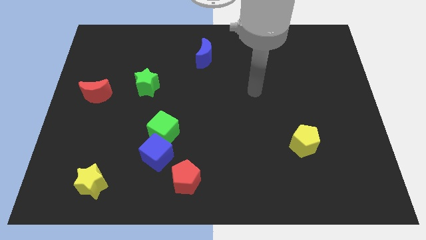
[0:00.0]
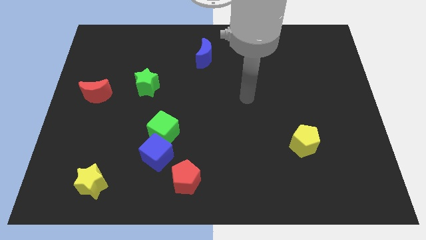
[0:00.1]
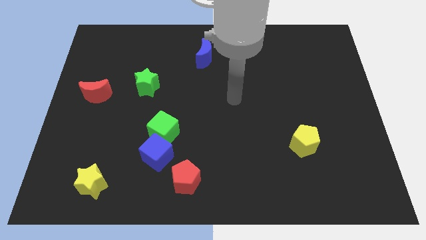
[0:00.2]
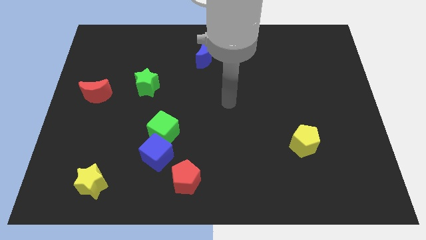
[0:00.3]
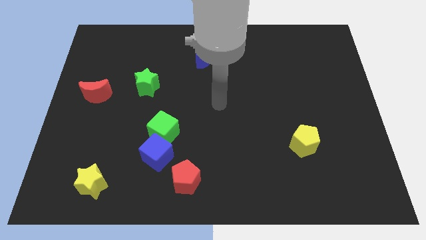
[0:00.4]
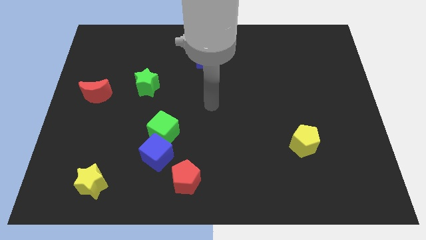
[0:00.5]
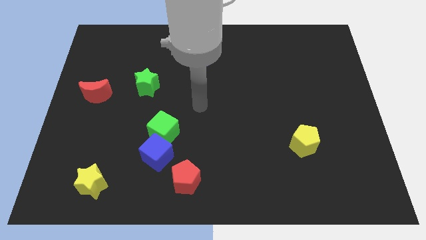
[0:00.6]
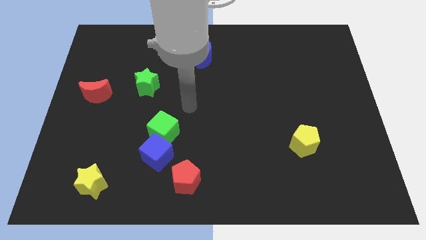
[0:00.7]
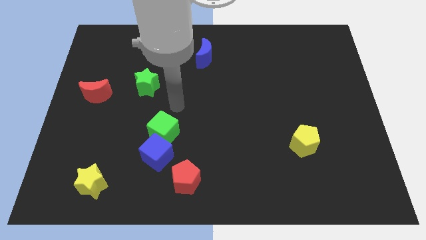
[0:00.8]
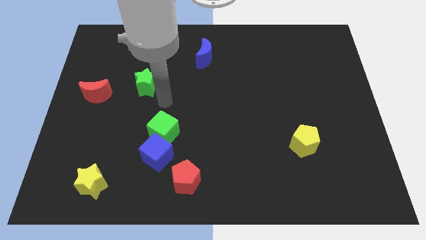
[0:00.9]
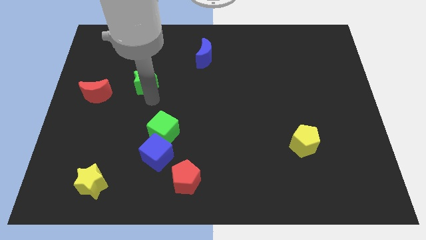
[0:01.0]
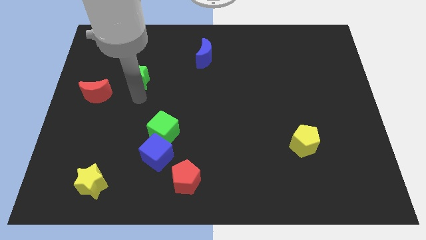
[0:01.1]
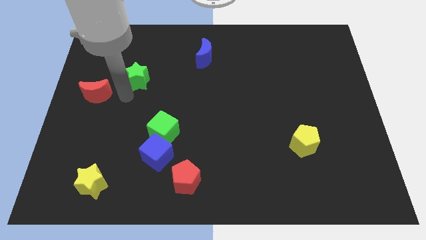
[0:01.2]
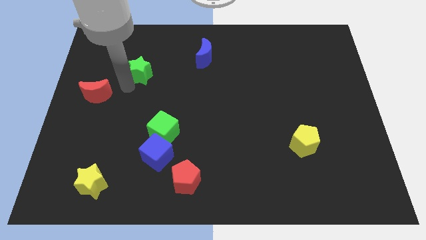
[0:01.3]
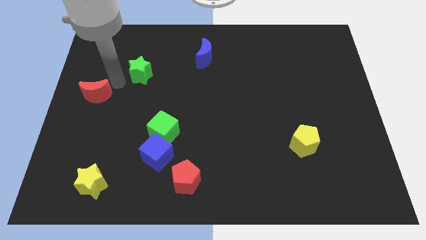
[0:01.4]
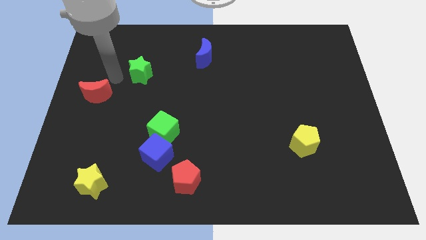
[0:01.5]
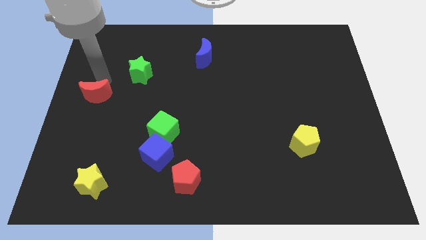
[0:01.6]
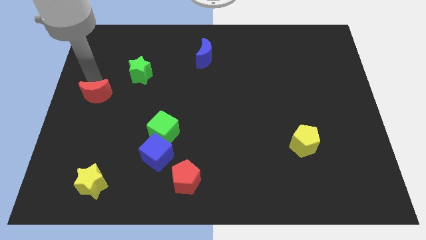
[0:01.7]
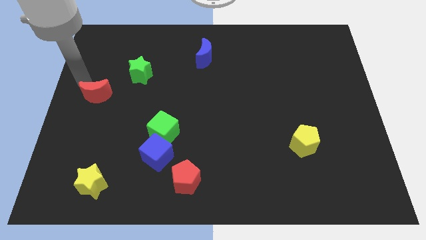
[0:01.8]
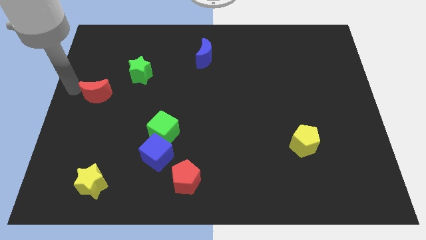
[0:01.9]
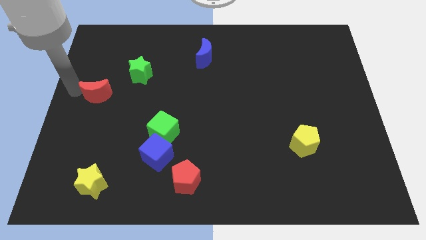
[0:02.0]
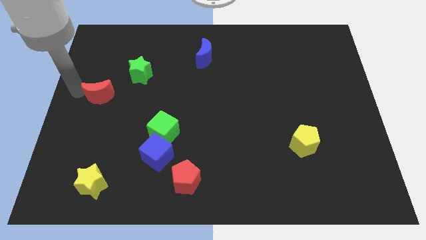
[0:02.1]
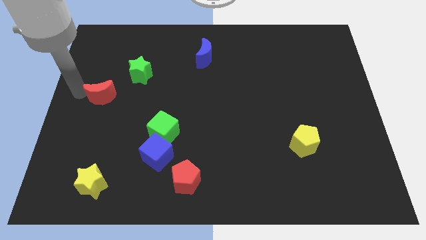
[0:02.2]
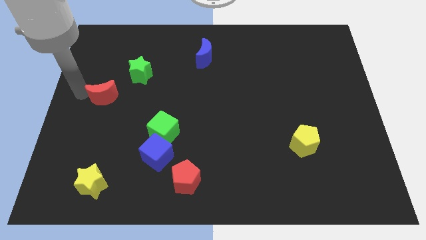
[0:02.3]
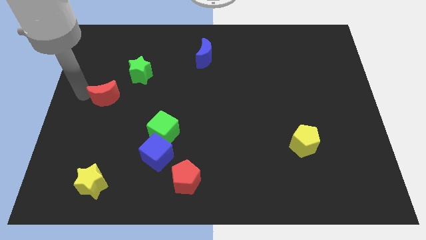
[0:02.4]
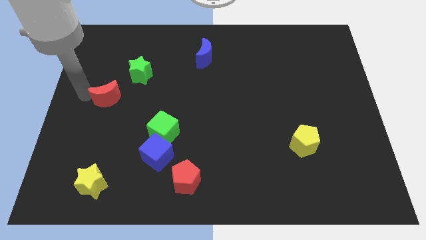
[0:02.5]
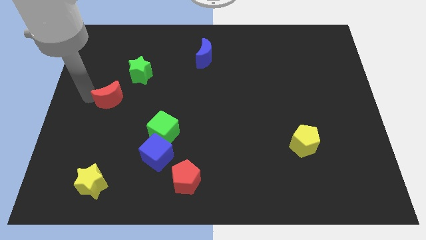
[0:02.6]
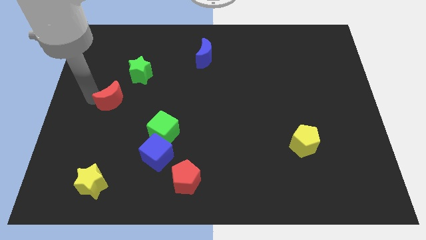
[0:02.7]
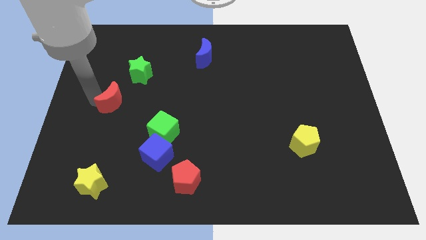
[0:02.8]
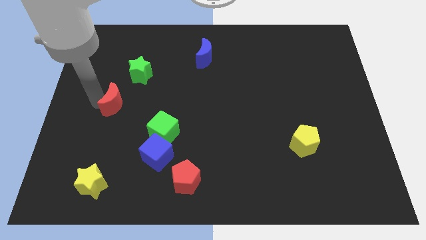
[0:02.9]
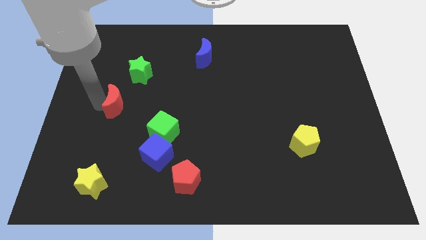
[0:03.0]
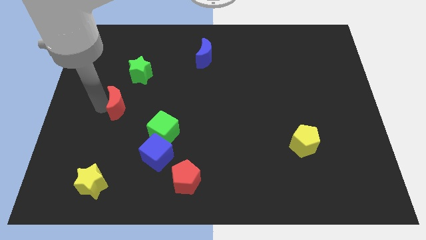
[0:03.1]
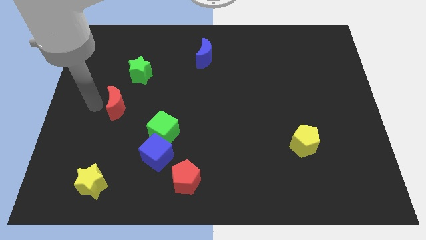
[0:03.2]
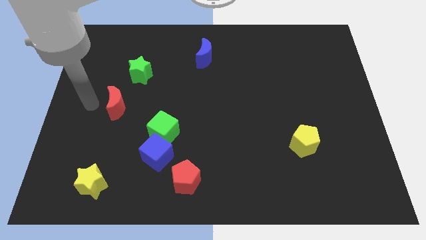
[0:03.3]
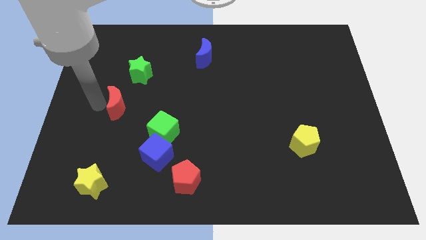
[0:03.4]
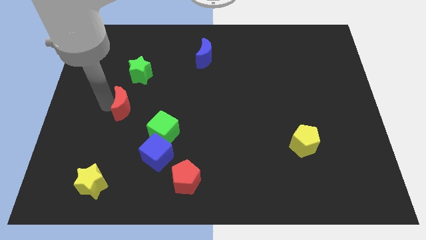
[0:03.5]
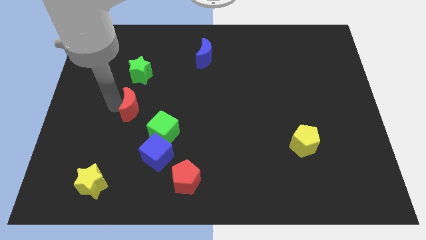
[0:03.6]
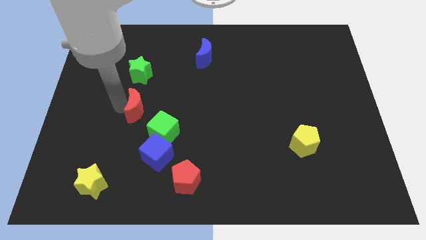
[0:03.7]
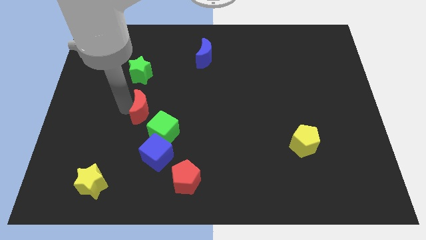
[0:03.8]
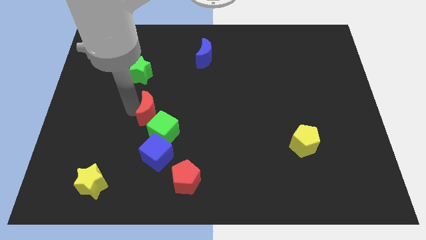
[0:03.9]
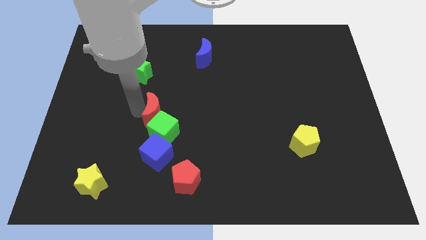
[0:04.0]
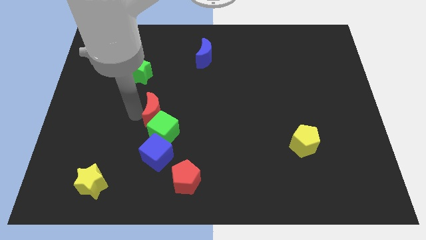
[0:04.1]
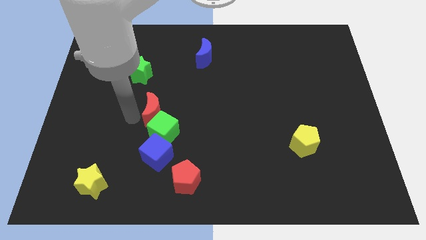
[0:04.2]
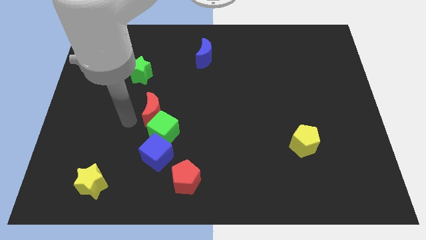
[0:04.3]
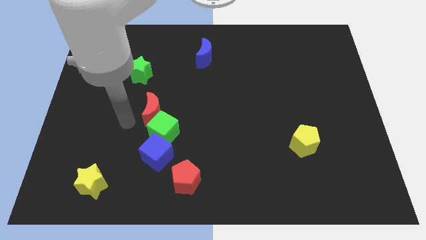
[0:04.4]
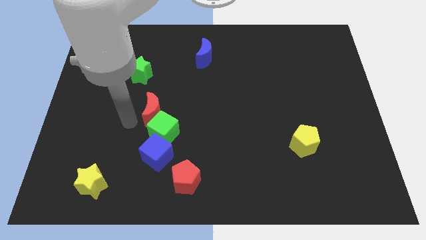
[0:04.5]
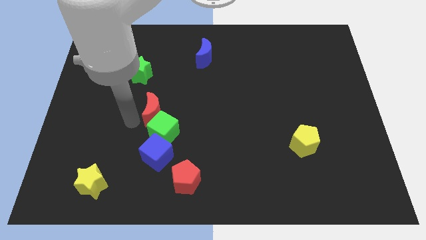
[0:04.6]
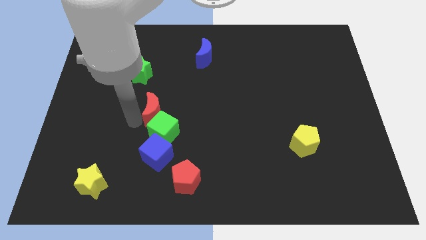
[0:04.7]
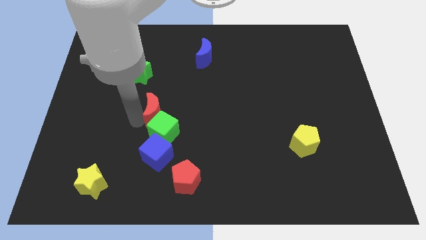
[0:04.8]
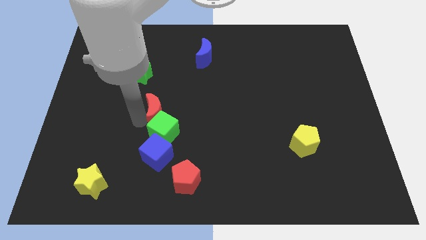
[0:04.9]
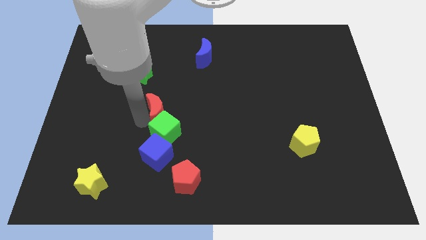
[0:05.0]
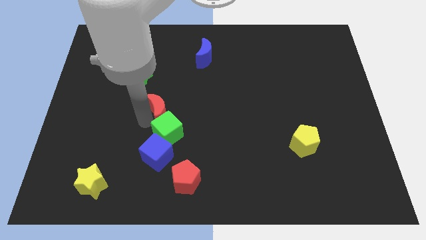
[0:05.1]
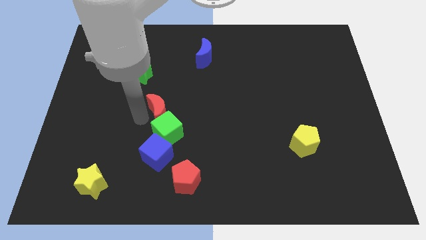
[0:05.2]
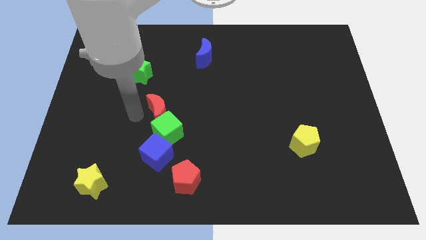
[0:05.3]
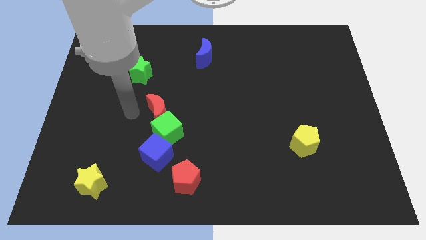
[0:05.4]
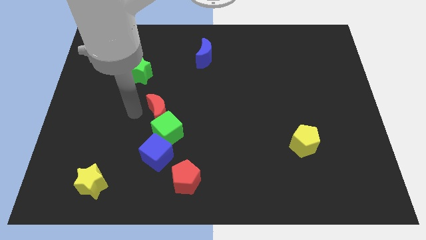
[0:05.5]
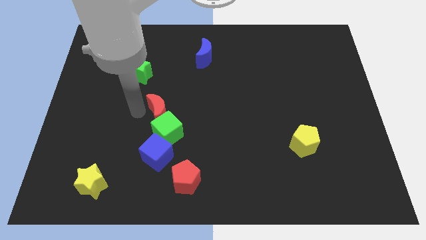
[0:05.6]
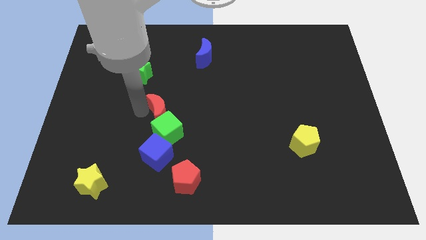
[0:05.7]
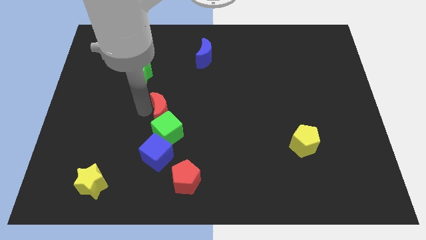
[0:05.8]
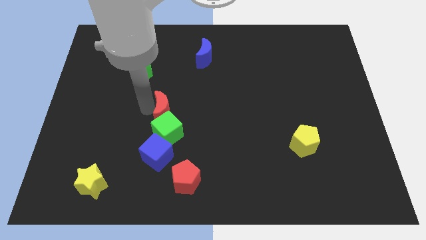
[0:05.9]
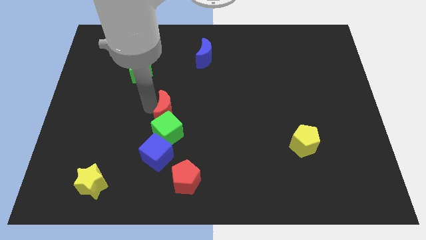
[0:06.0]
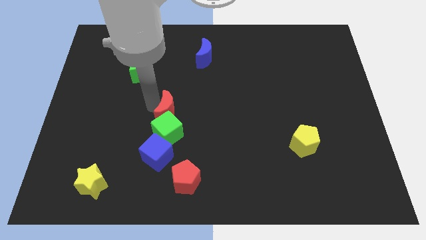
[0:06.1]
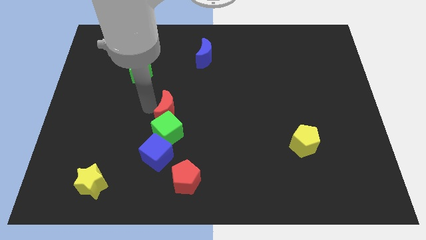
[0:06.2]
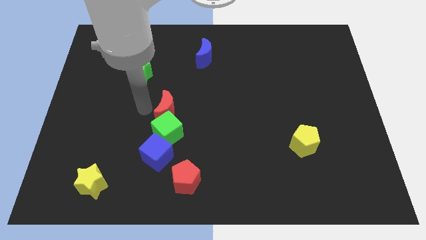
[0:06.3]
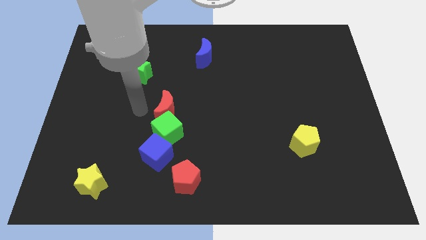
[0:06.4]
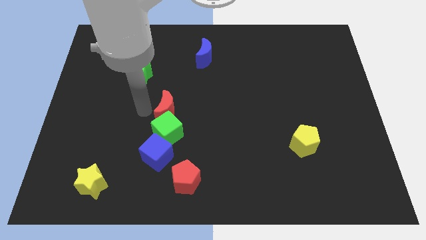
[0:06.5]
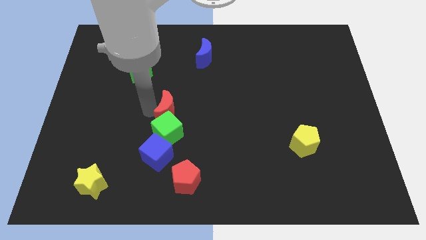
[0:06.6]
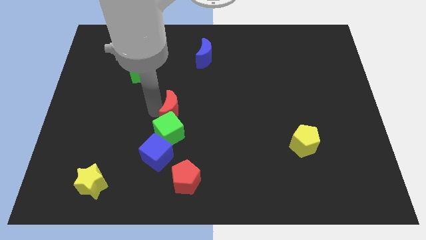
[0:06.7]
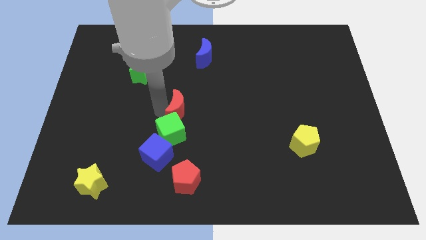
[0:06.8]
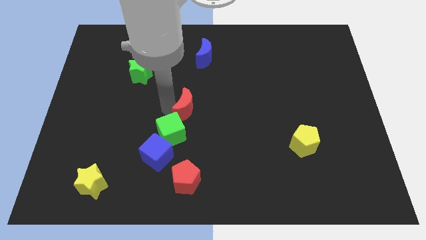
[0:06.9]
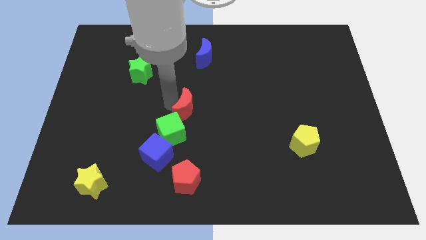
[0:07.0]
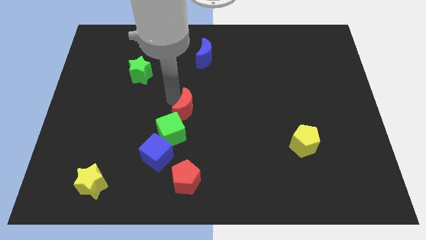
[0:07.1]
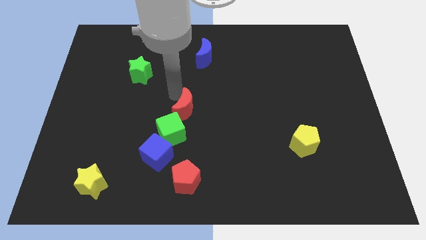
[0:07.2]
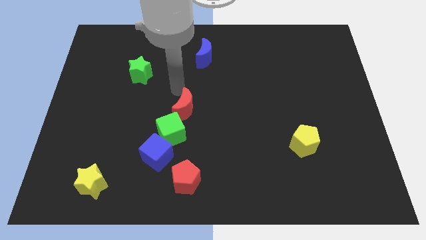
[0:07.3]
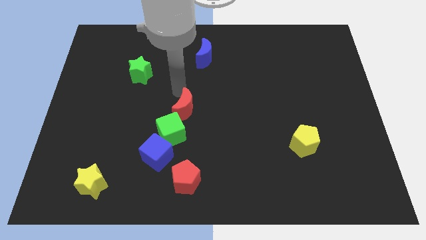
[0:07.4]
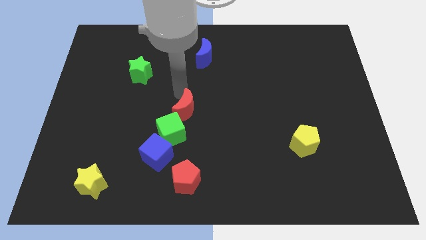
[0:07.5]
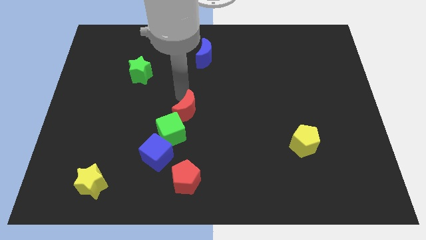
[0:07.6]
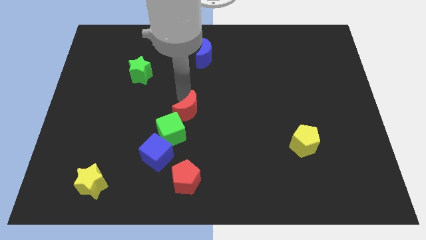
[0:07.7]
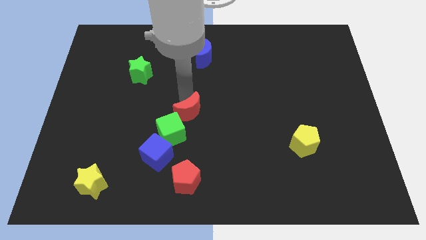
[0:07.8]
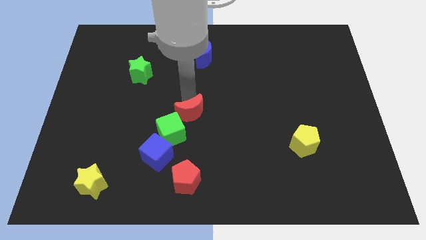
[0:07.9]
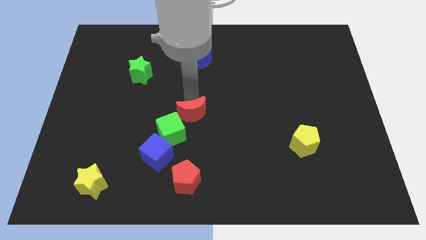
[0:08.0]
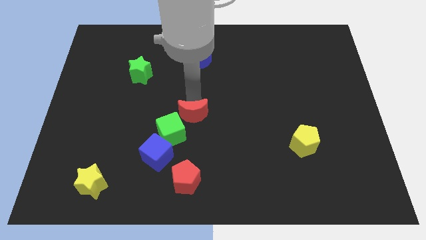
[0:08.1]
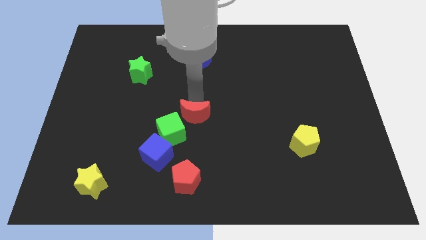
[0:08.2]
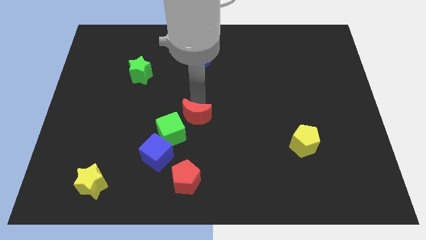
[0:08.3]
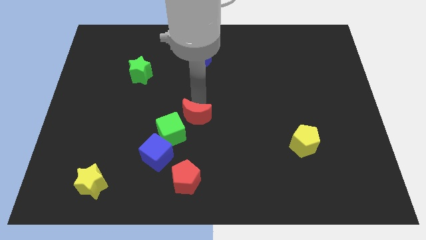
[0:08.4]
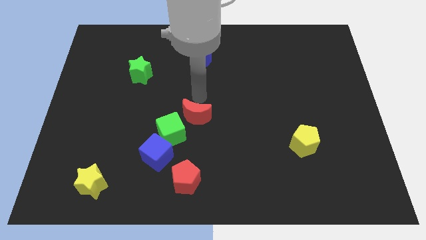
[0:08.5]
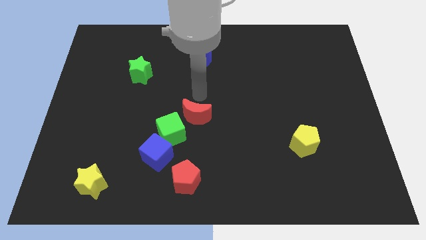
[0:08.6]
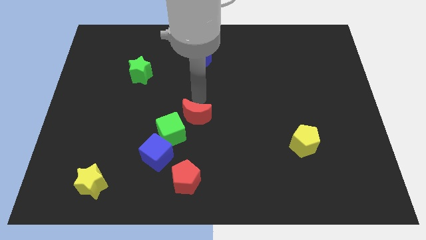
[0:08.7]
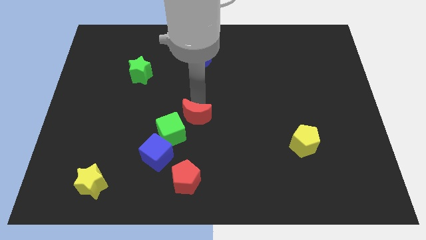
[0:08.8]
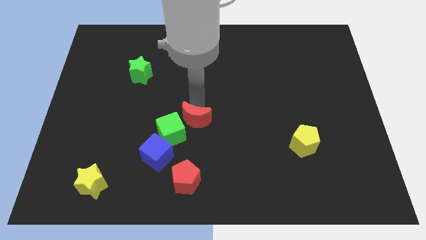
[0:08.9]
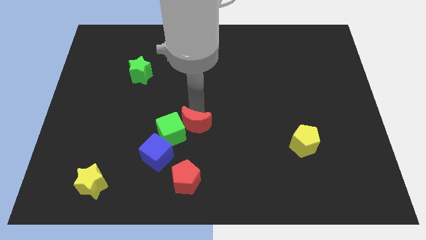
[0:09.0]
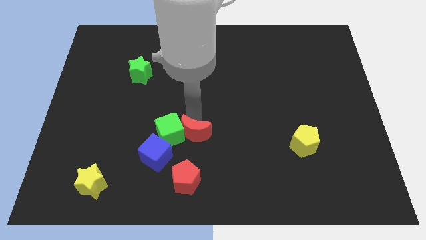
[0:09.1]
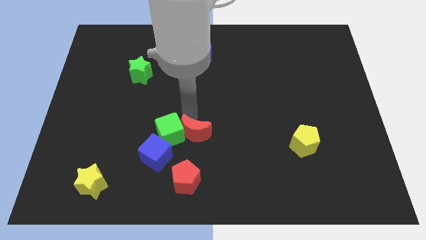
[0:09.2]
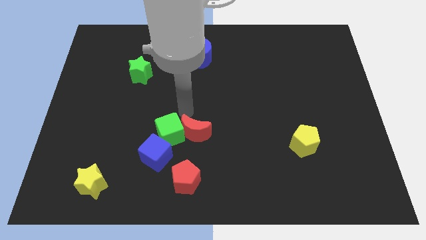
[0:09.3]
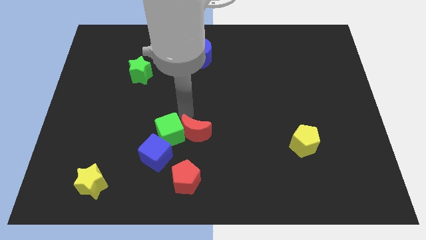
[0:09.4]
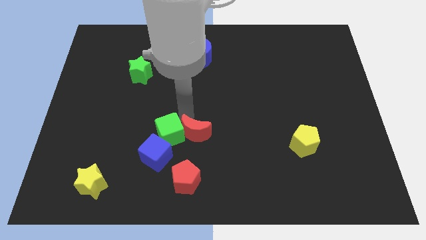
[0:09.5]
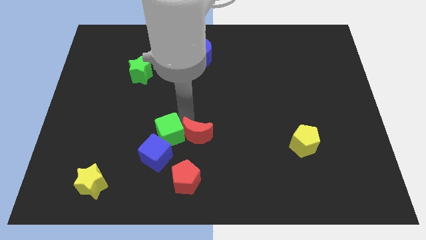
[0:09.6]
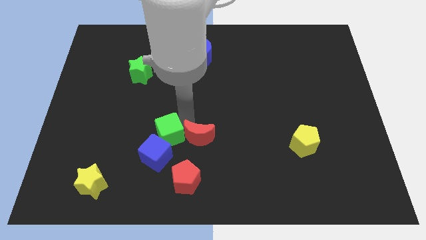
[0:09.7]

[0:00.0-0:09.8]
push the red moon right of the blue cube
